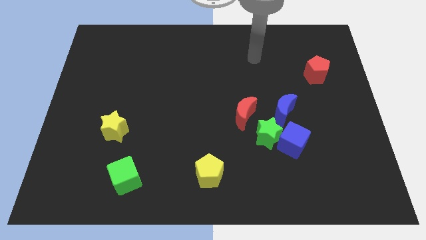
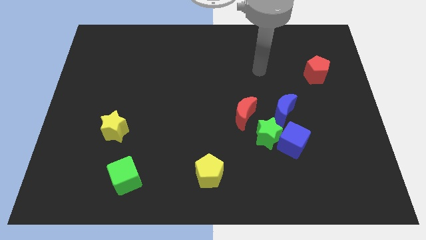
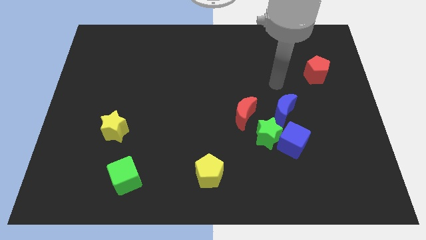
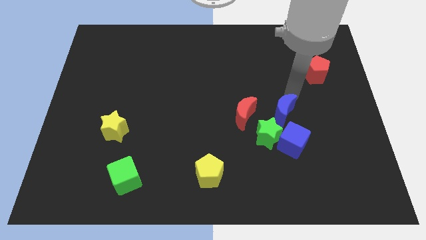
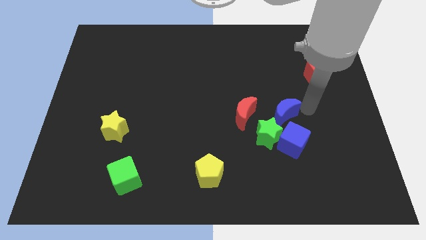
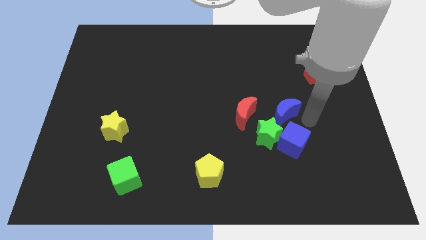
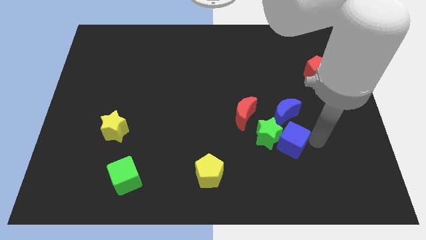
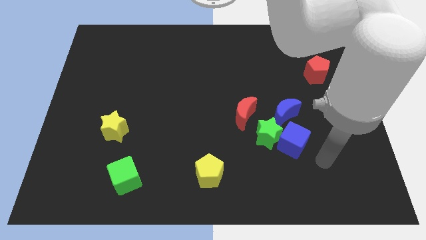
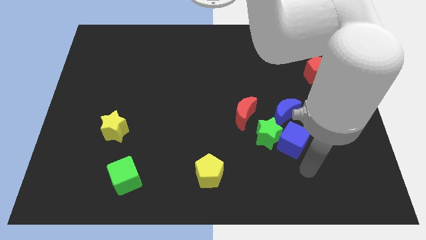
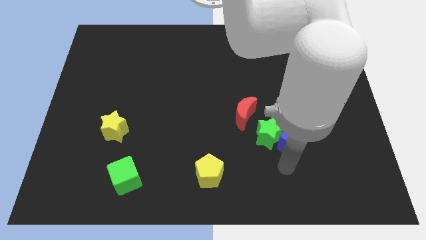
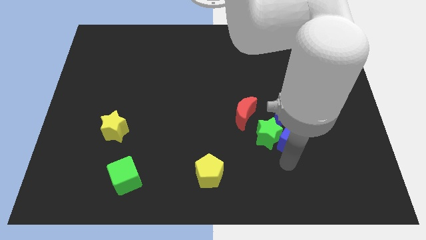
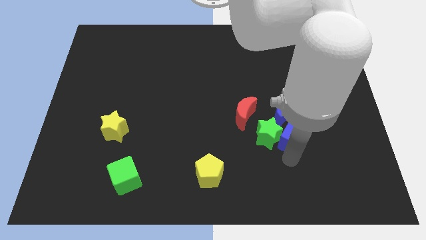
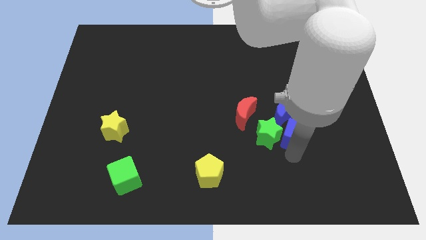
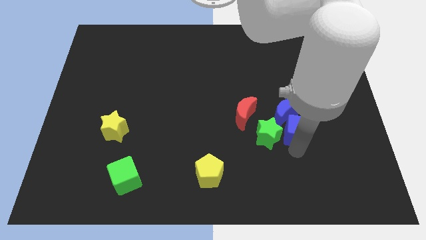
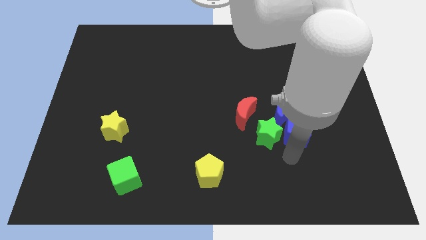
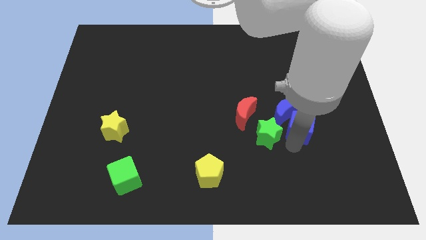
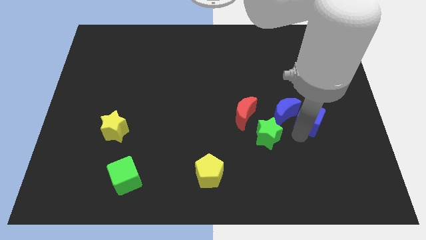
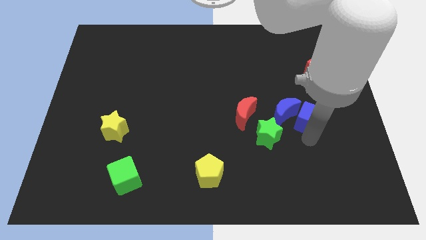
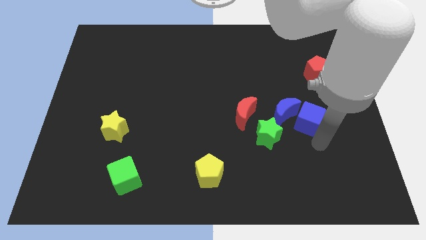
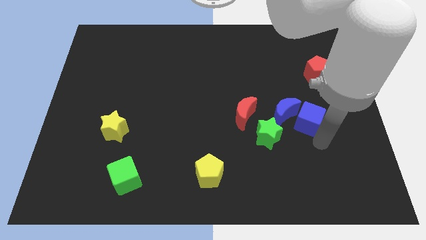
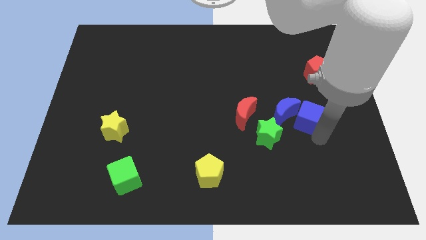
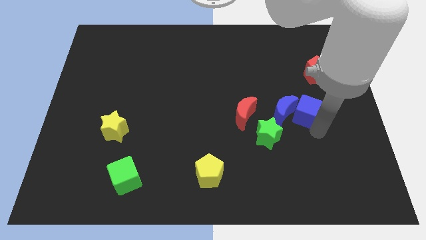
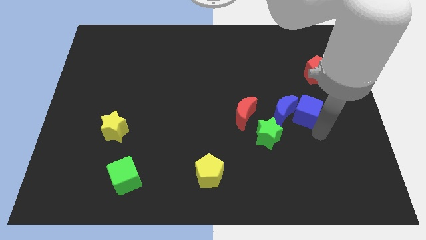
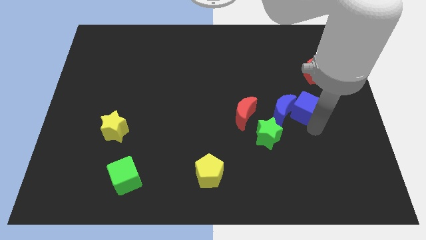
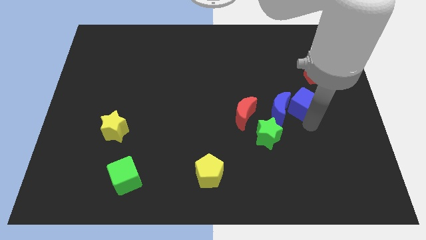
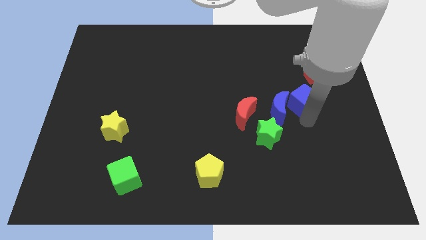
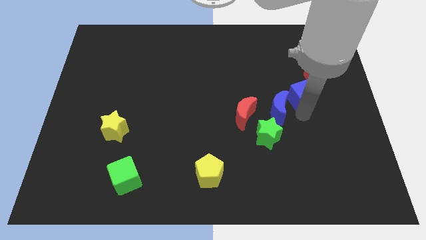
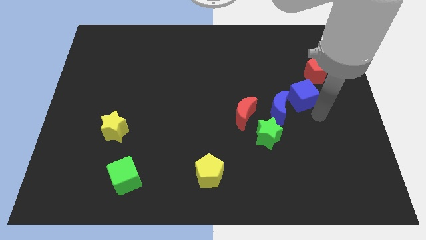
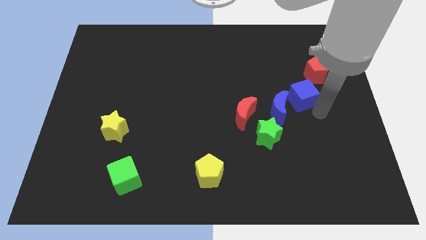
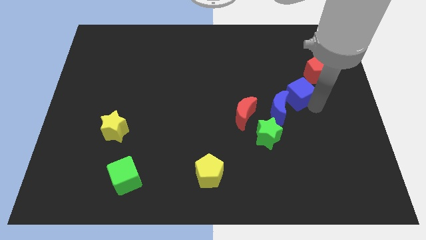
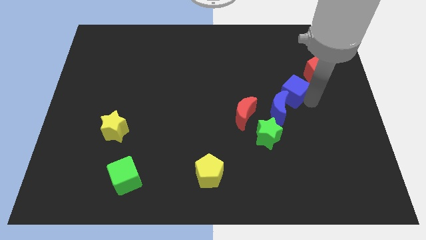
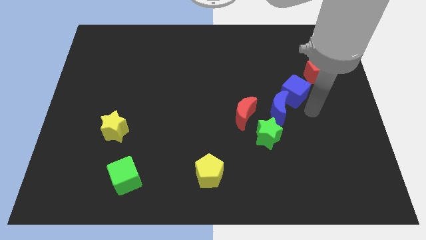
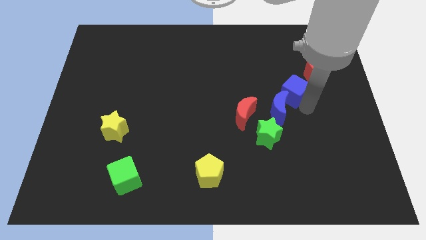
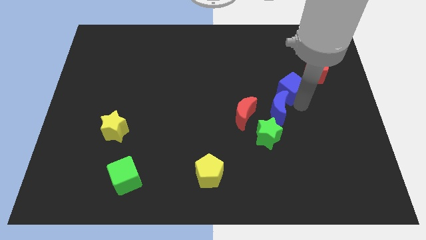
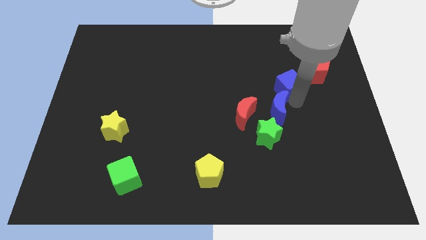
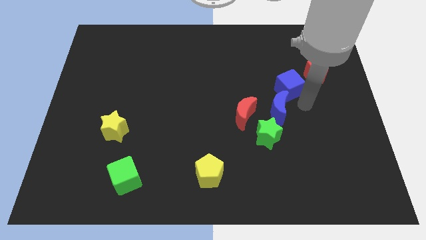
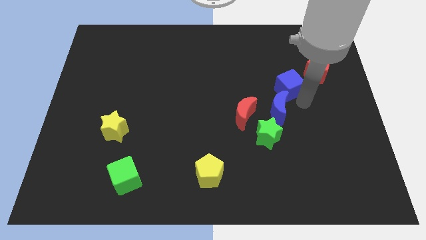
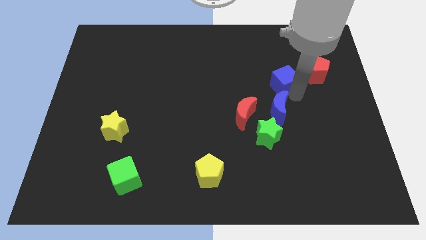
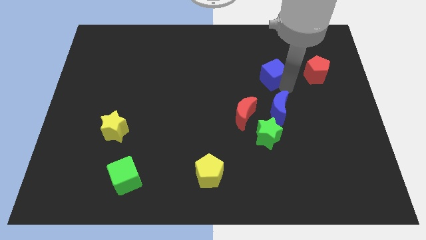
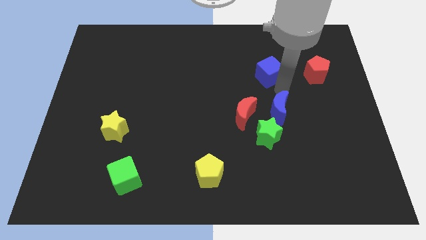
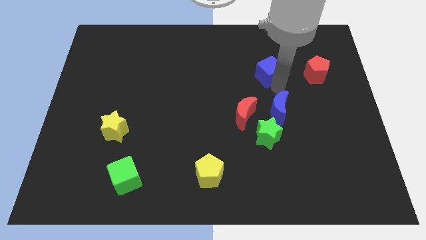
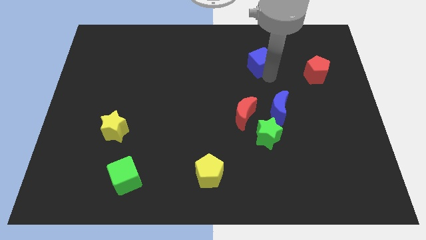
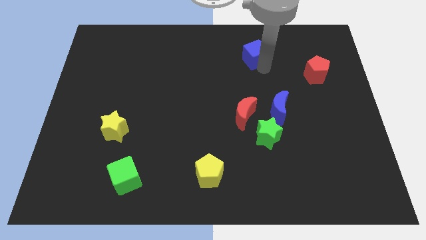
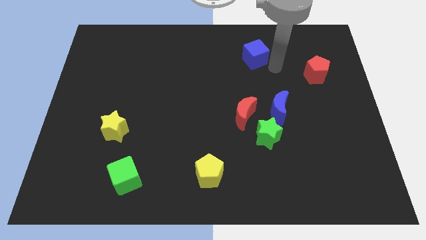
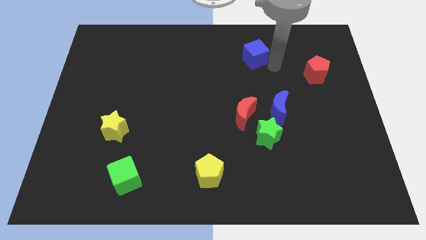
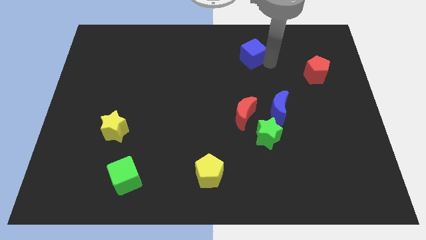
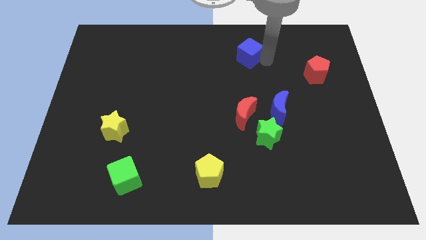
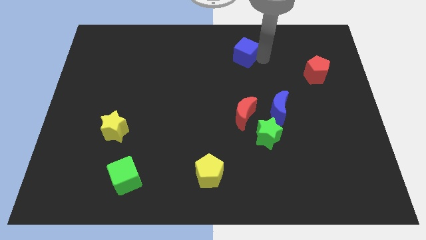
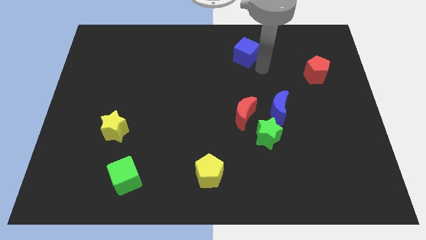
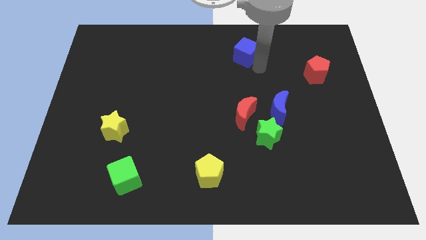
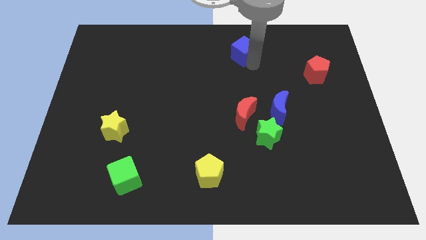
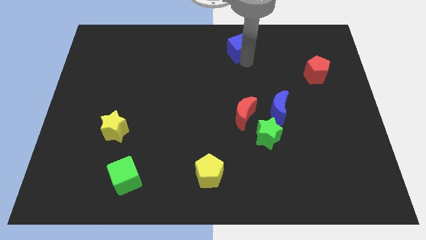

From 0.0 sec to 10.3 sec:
move the blue cube to the top side

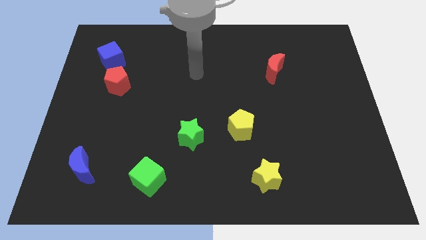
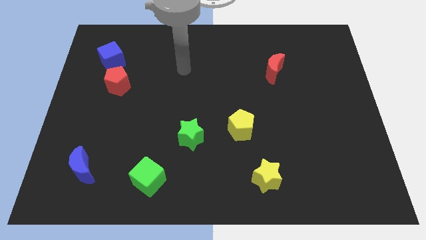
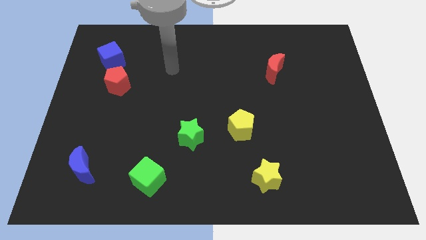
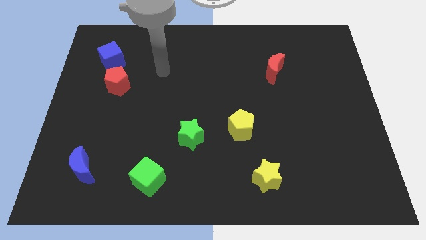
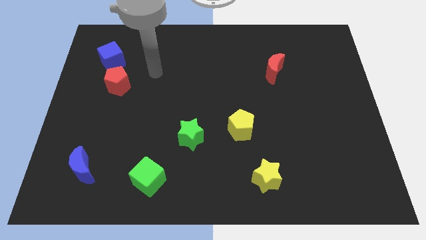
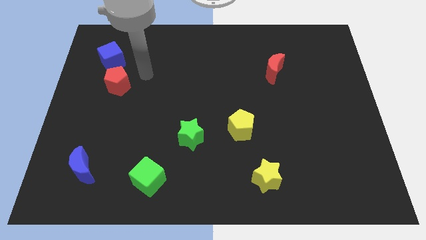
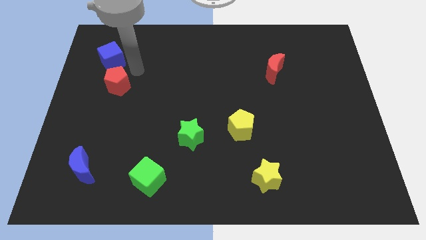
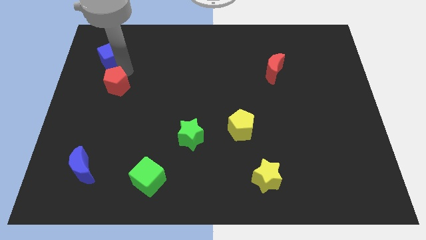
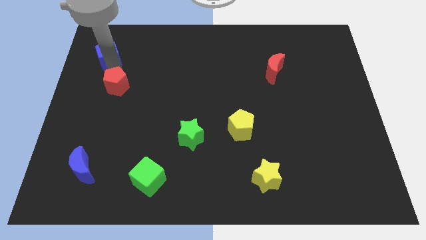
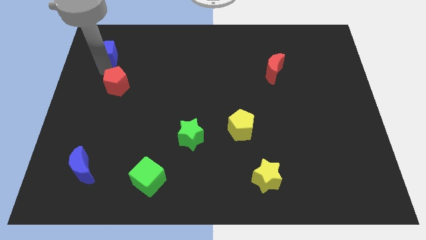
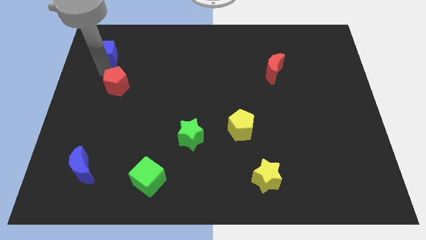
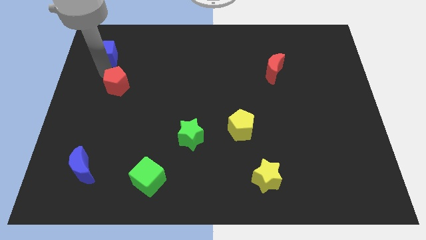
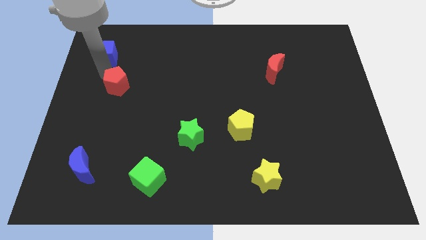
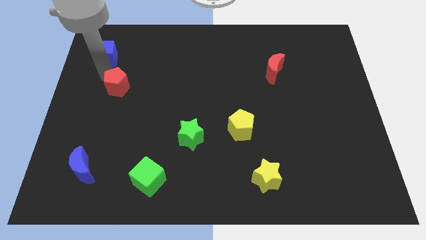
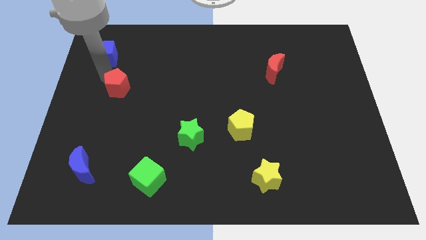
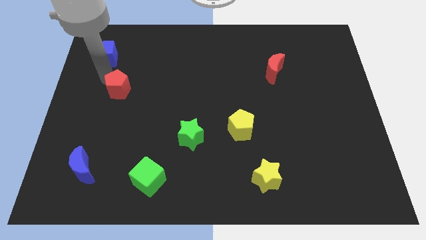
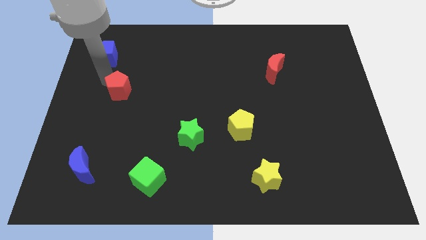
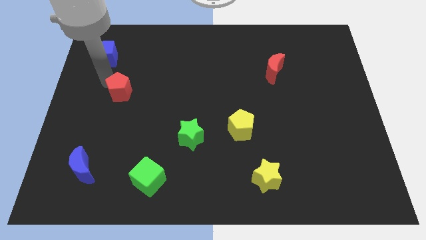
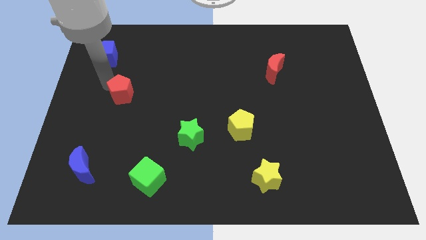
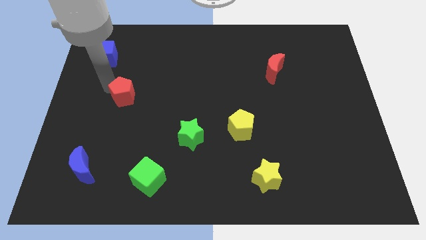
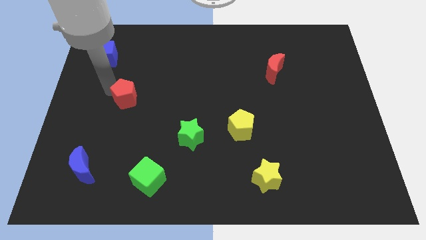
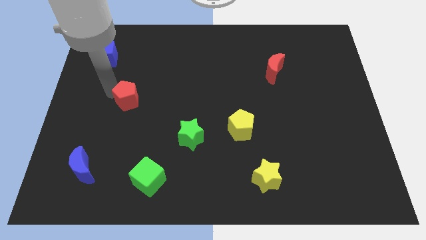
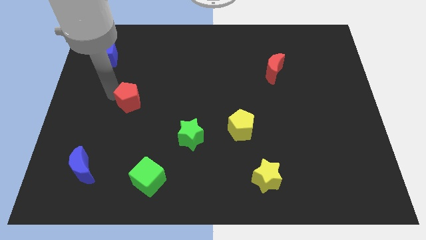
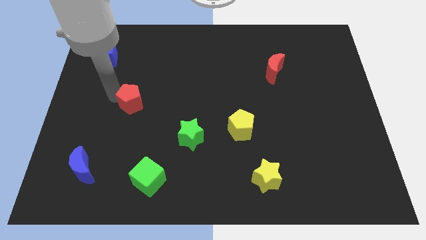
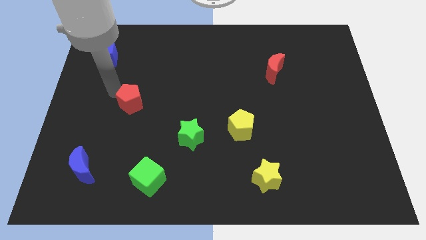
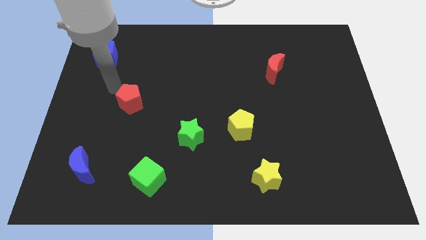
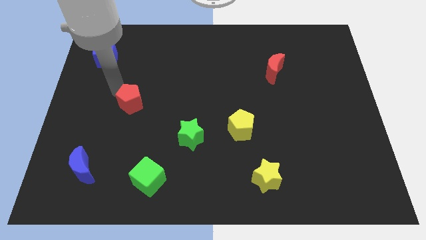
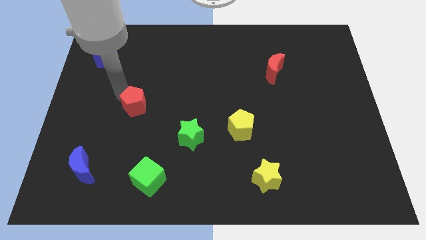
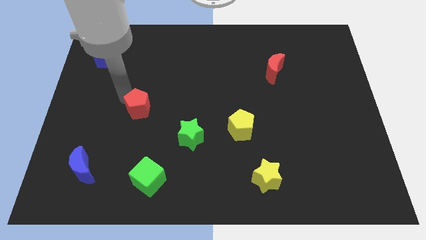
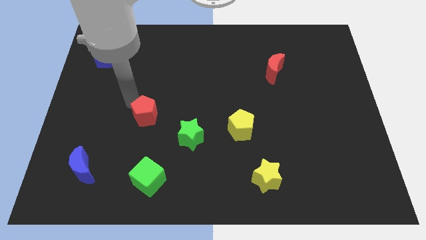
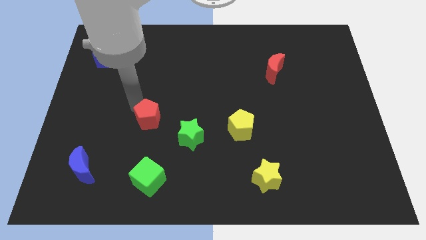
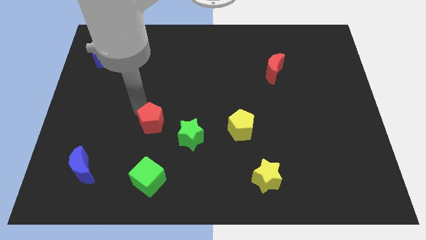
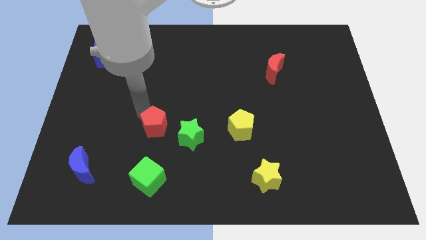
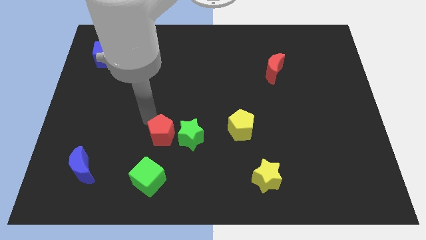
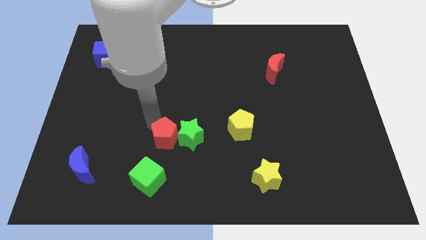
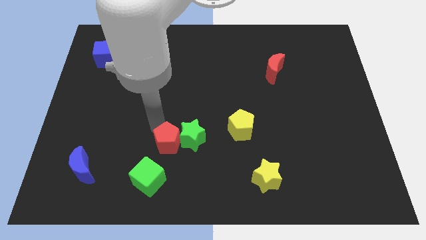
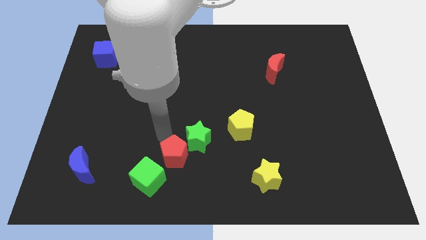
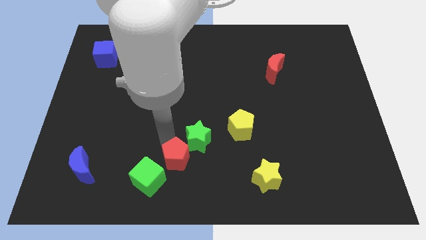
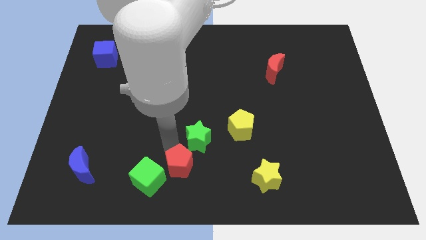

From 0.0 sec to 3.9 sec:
slide the red pentagon to the bottom
